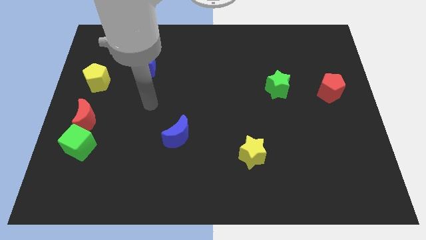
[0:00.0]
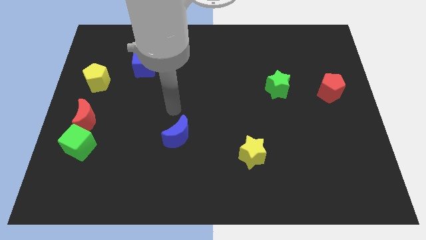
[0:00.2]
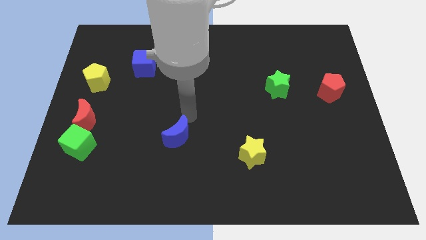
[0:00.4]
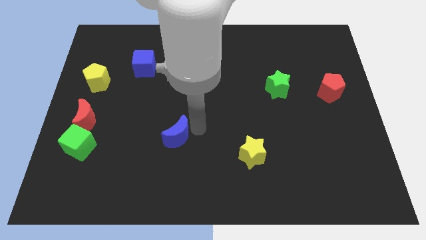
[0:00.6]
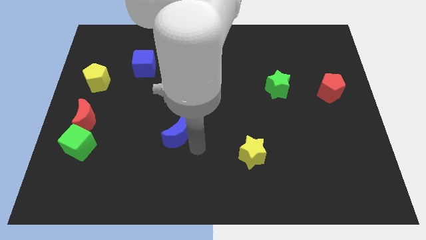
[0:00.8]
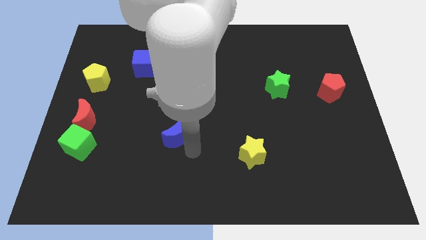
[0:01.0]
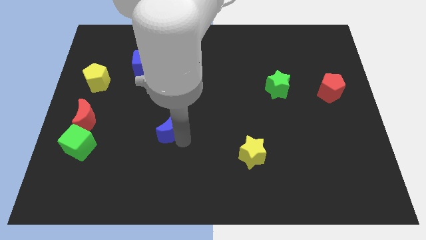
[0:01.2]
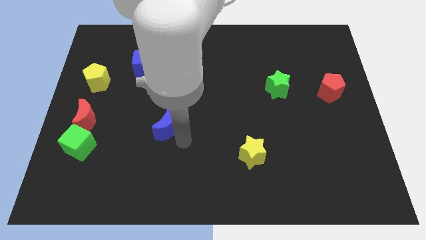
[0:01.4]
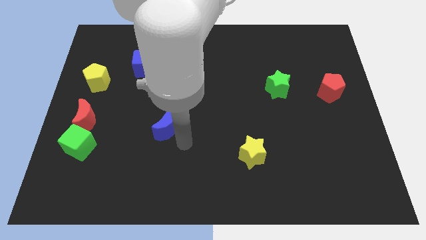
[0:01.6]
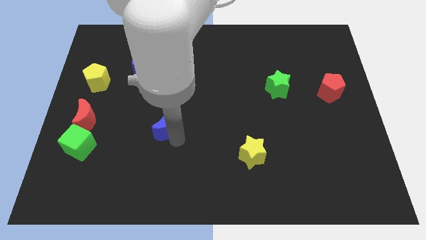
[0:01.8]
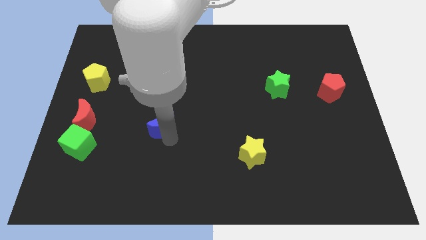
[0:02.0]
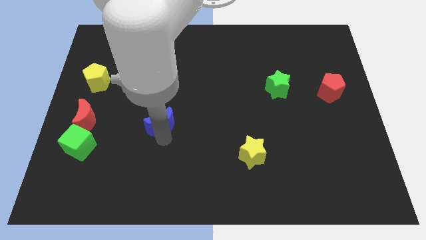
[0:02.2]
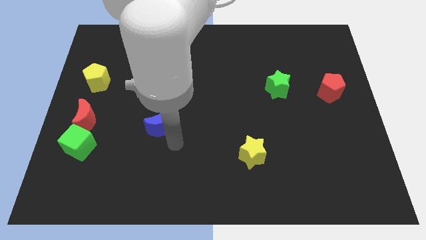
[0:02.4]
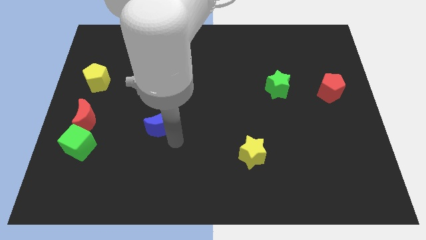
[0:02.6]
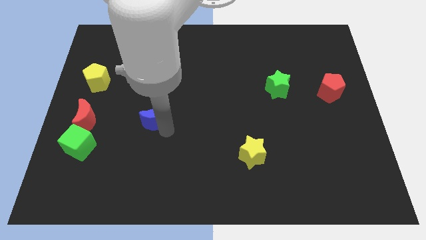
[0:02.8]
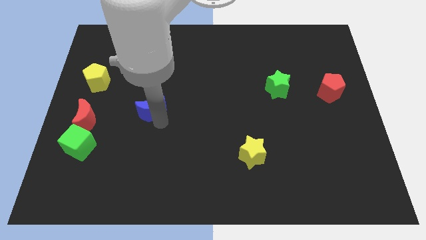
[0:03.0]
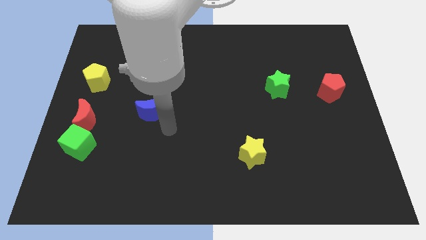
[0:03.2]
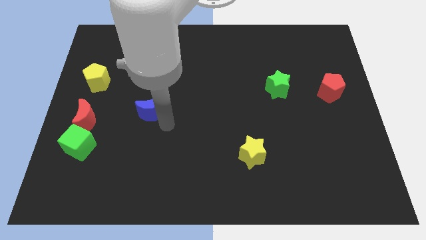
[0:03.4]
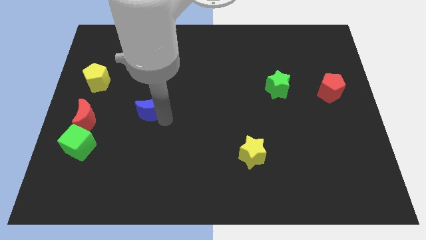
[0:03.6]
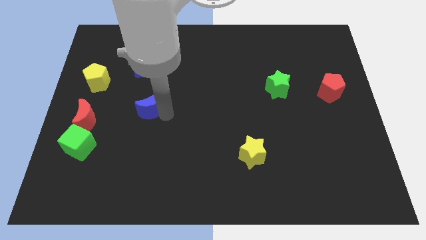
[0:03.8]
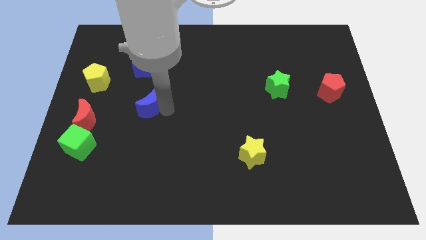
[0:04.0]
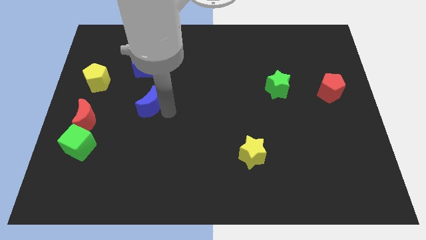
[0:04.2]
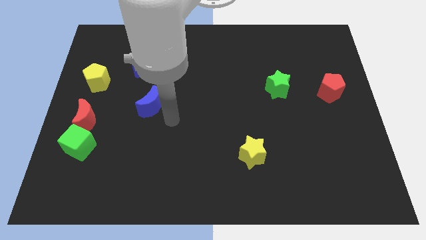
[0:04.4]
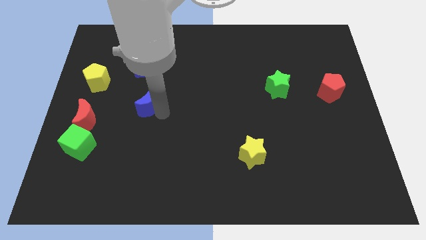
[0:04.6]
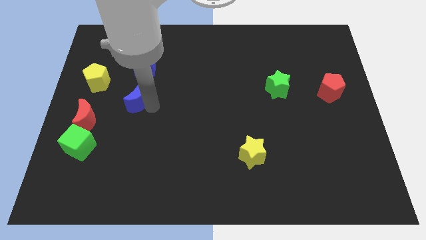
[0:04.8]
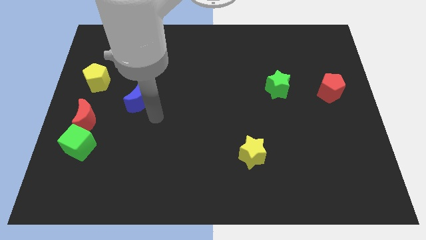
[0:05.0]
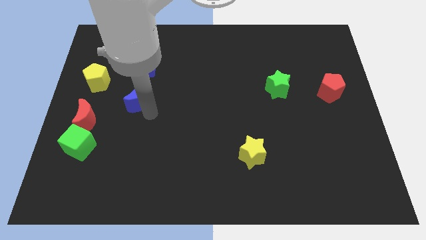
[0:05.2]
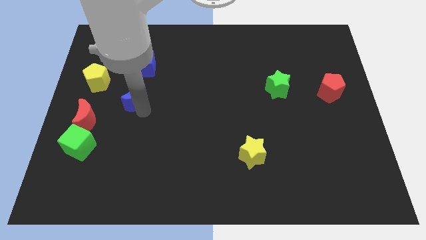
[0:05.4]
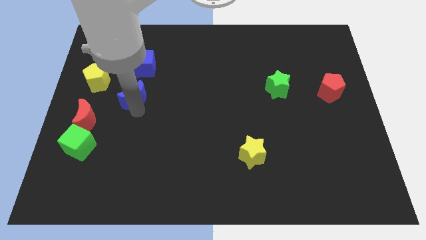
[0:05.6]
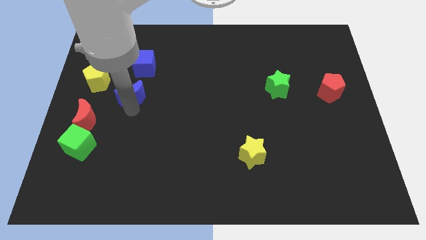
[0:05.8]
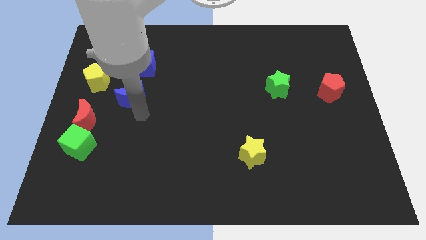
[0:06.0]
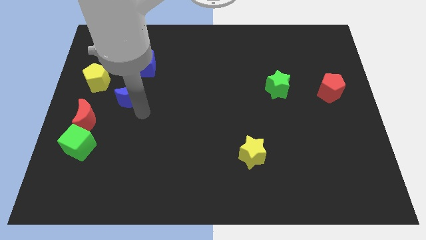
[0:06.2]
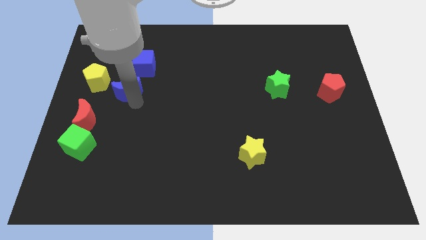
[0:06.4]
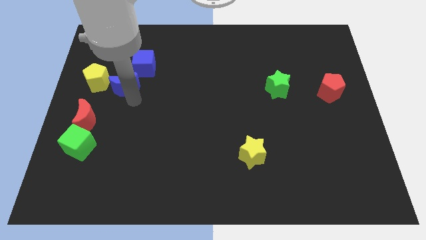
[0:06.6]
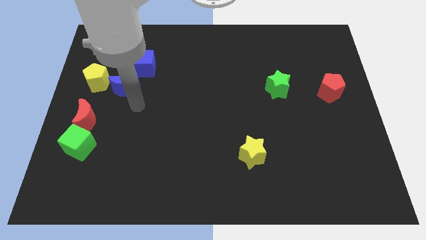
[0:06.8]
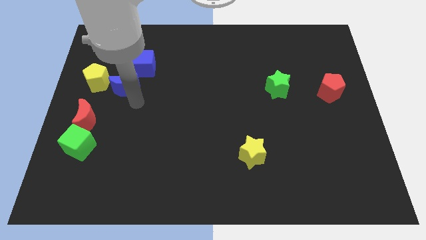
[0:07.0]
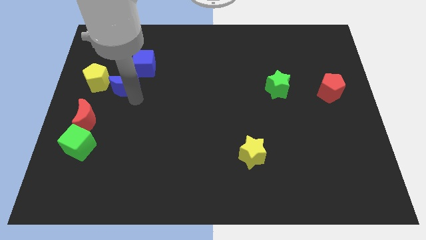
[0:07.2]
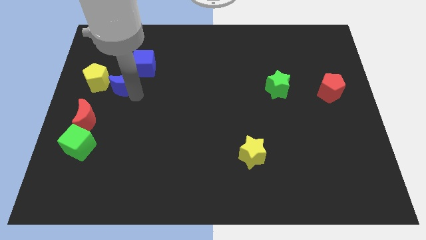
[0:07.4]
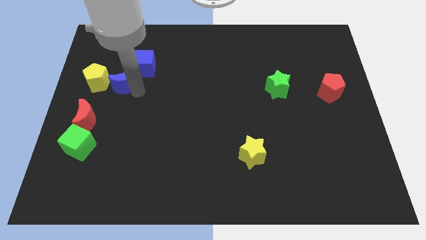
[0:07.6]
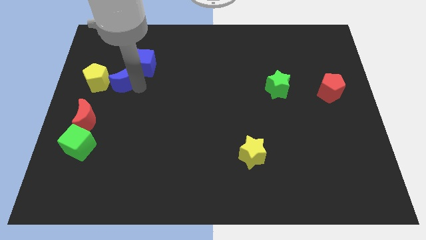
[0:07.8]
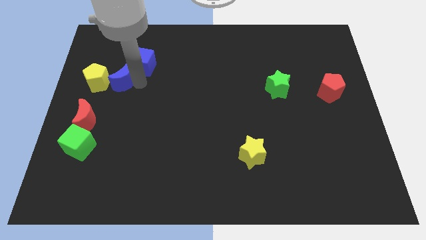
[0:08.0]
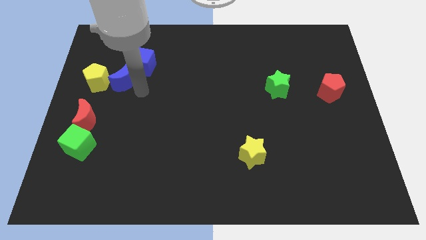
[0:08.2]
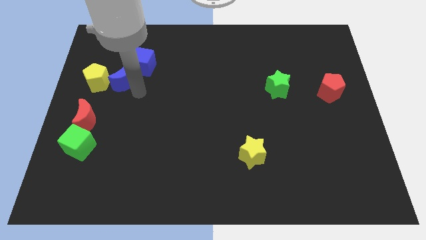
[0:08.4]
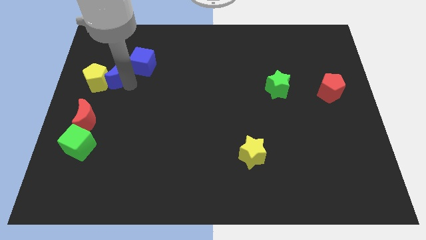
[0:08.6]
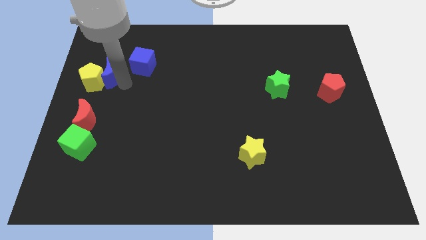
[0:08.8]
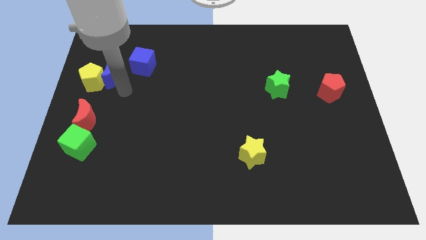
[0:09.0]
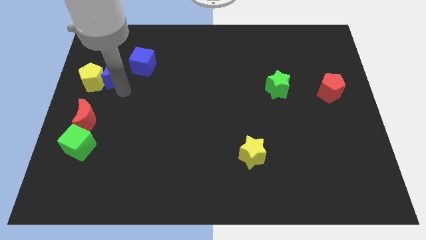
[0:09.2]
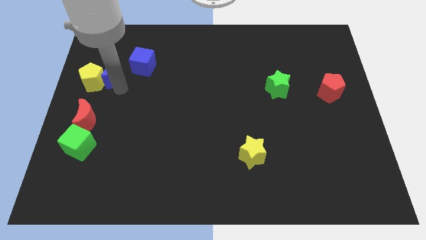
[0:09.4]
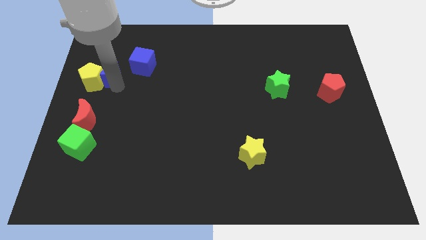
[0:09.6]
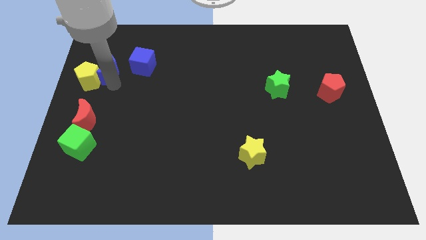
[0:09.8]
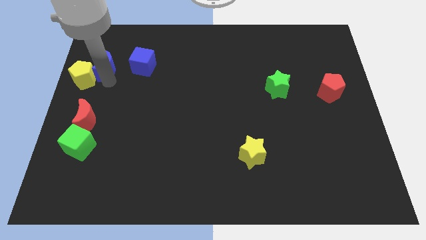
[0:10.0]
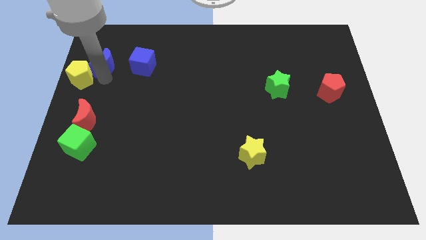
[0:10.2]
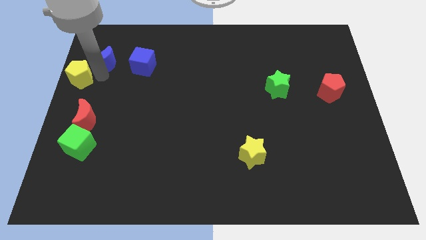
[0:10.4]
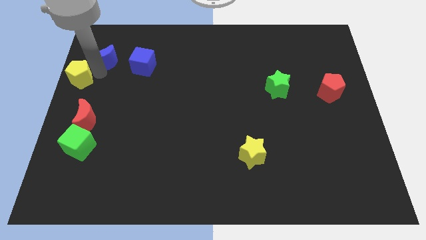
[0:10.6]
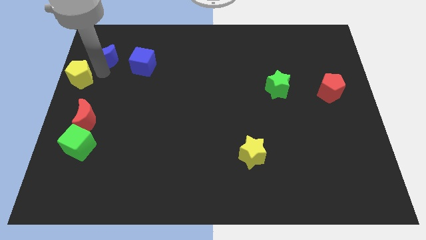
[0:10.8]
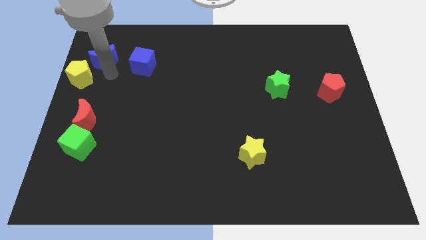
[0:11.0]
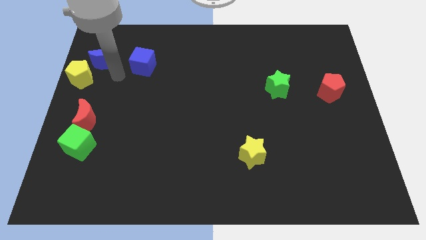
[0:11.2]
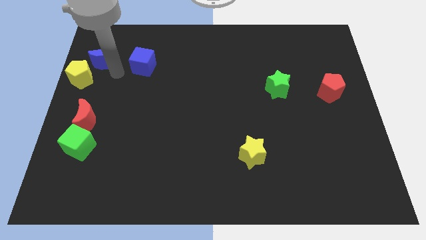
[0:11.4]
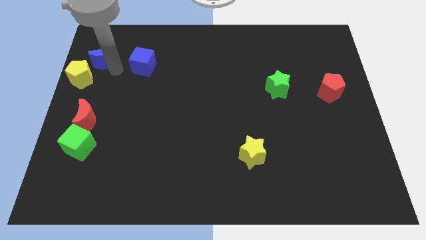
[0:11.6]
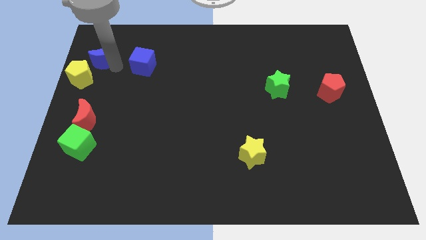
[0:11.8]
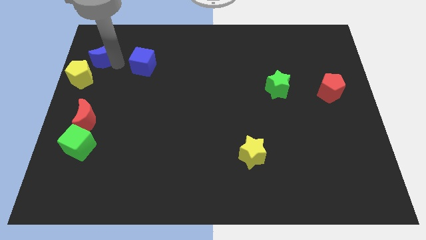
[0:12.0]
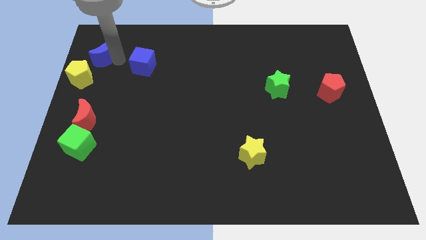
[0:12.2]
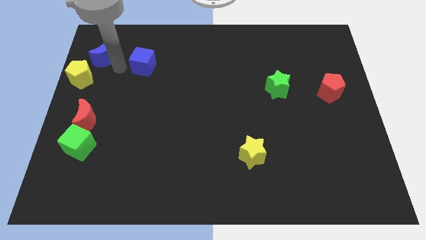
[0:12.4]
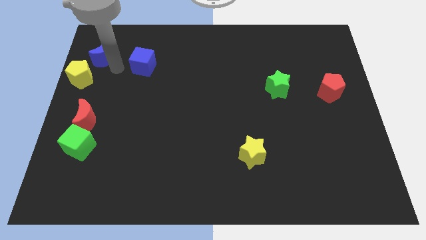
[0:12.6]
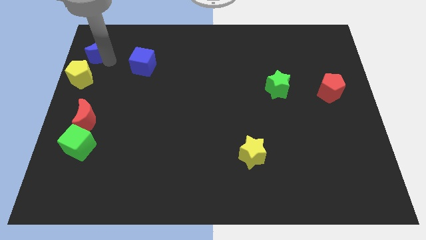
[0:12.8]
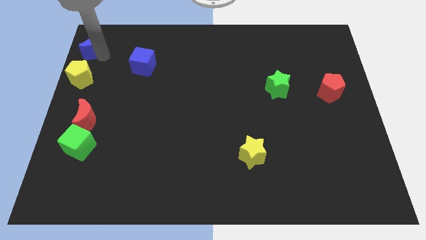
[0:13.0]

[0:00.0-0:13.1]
push the blue moon to the top left corner

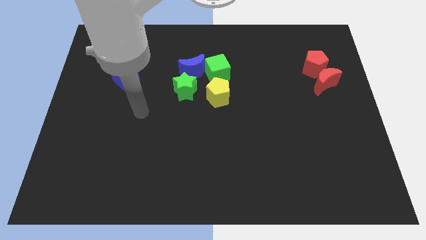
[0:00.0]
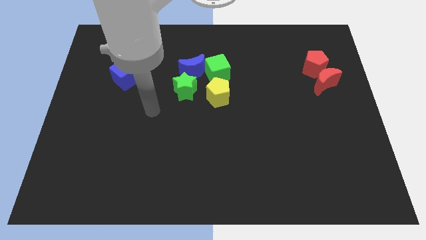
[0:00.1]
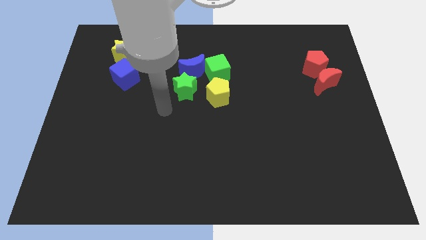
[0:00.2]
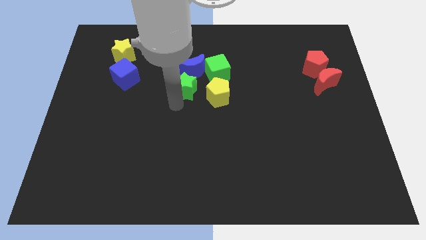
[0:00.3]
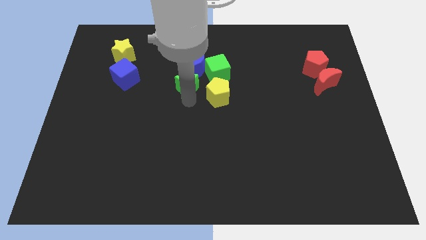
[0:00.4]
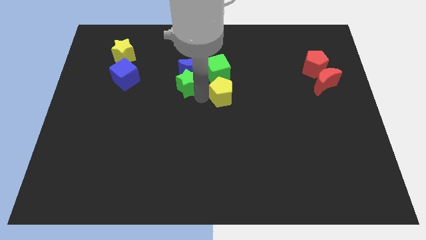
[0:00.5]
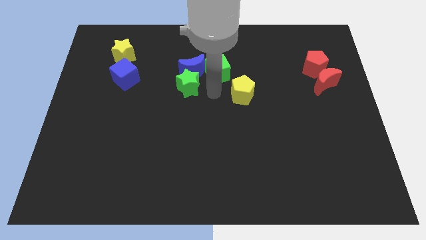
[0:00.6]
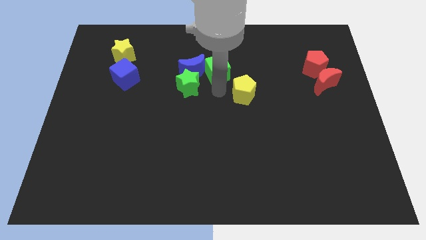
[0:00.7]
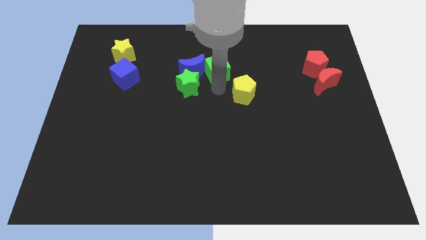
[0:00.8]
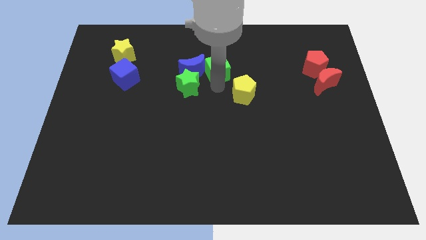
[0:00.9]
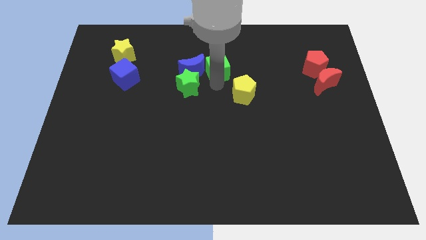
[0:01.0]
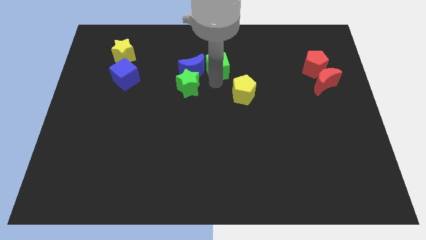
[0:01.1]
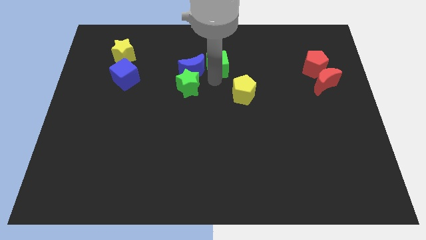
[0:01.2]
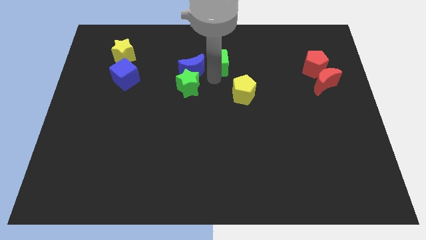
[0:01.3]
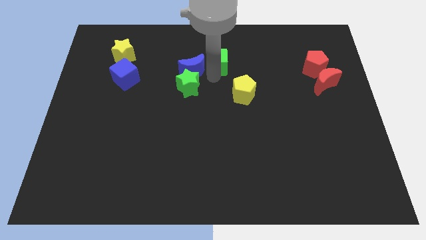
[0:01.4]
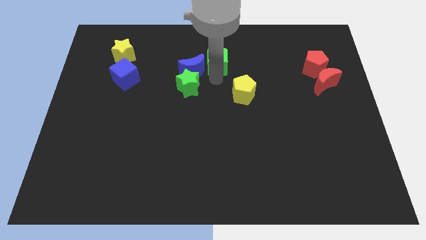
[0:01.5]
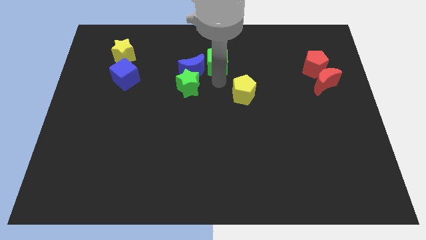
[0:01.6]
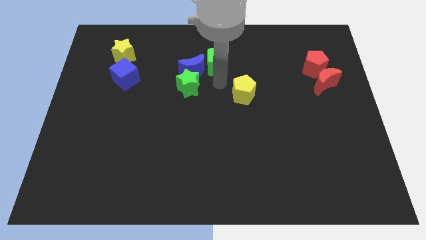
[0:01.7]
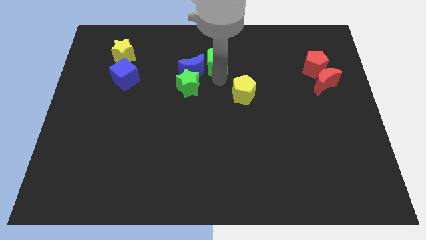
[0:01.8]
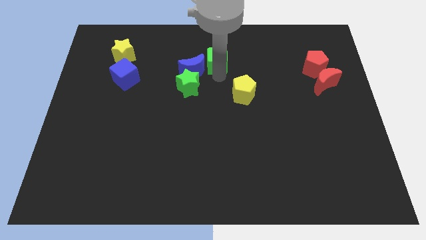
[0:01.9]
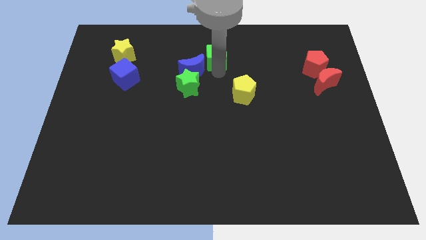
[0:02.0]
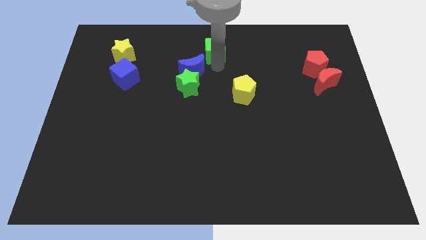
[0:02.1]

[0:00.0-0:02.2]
move the green cube to the top side
